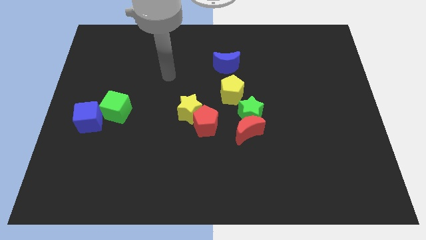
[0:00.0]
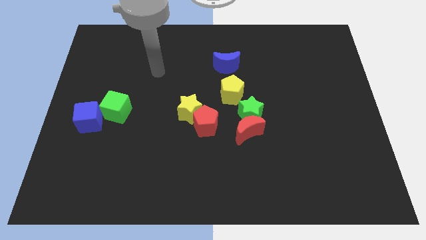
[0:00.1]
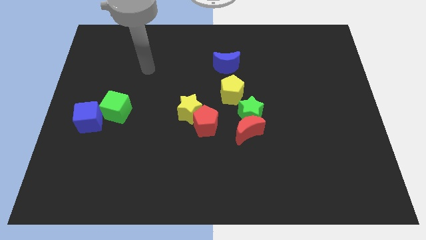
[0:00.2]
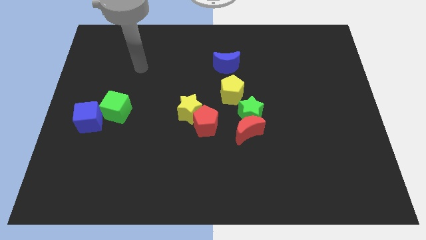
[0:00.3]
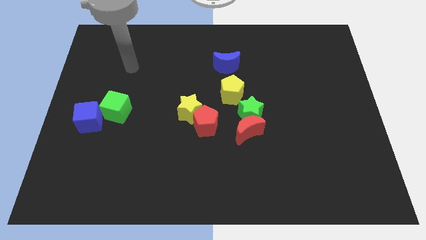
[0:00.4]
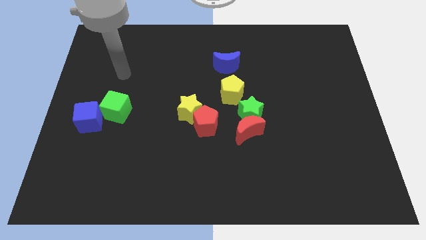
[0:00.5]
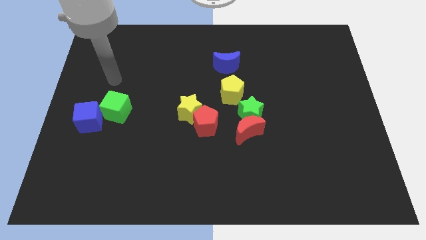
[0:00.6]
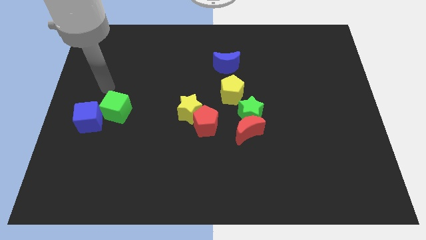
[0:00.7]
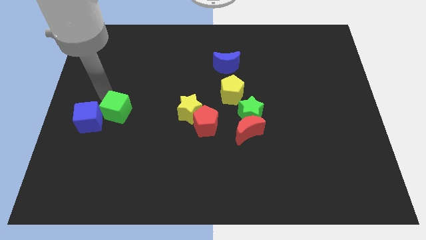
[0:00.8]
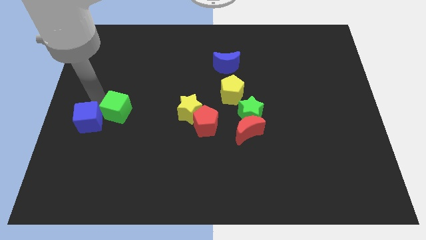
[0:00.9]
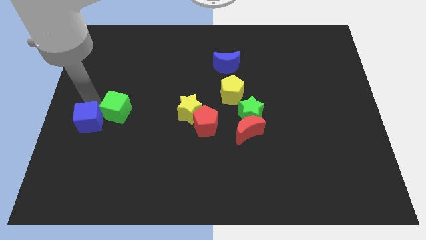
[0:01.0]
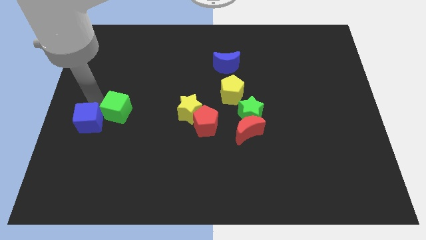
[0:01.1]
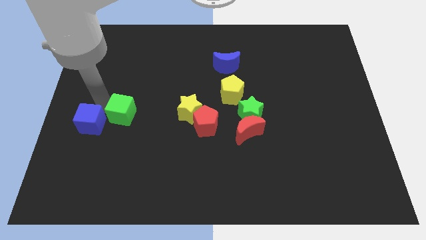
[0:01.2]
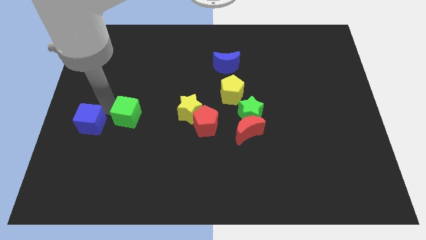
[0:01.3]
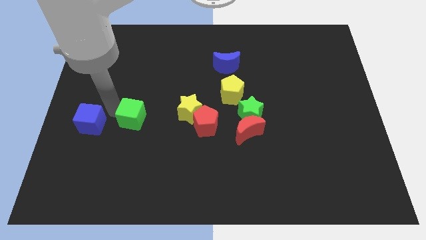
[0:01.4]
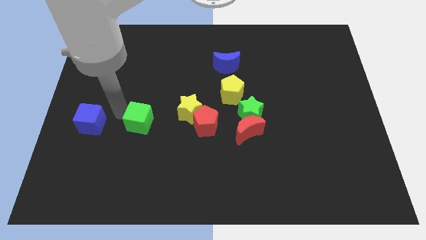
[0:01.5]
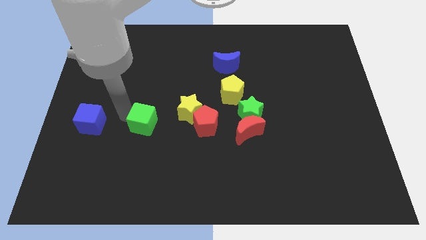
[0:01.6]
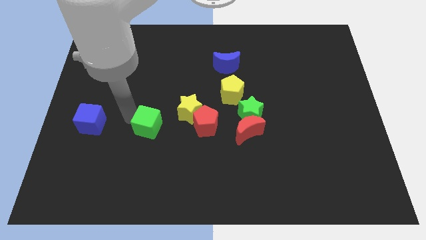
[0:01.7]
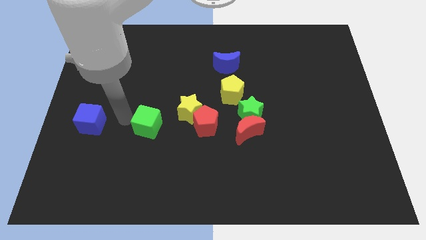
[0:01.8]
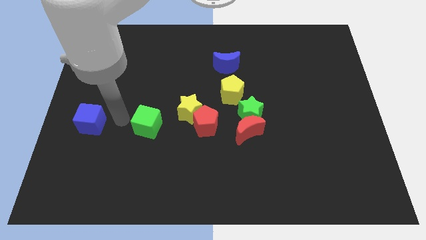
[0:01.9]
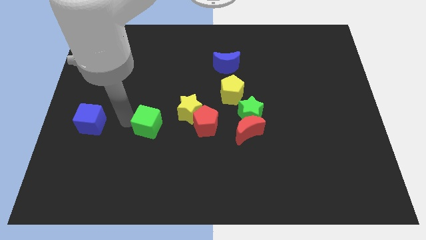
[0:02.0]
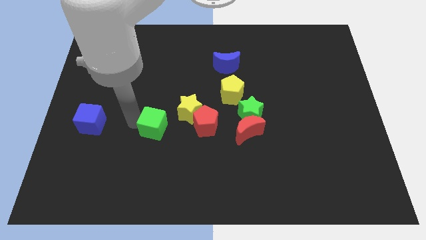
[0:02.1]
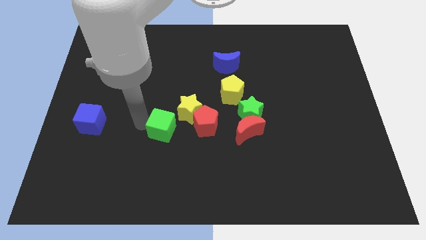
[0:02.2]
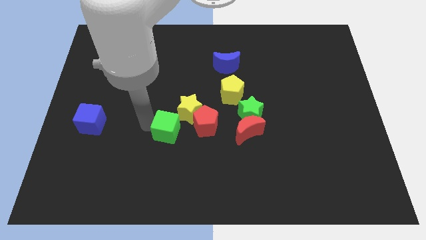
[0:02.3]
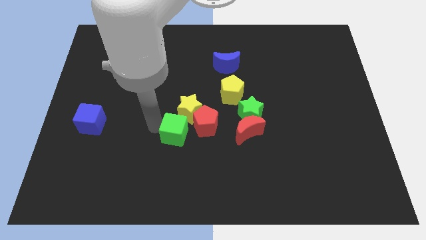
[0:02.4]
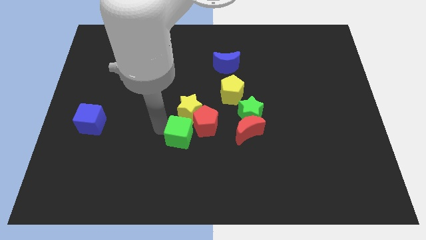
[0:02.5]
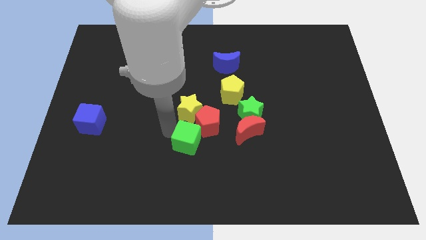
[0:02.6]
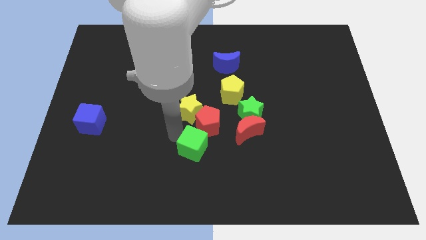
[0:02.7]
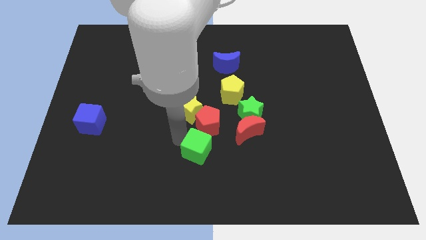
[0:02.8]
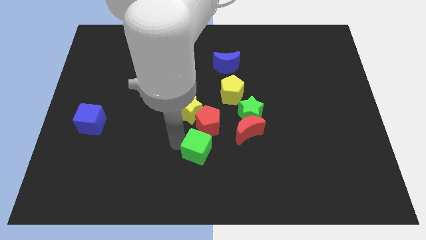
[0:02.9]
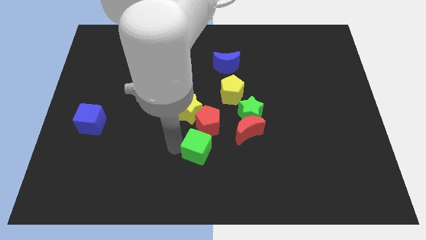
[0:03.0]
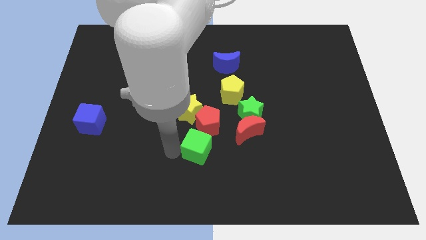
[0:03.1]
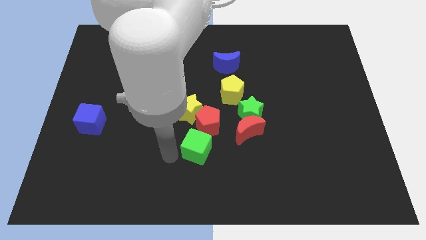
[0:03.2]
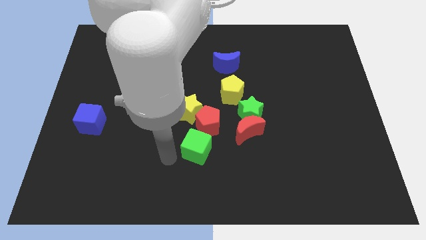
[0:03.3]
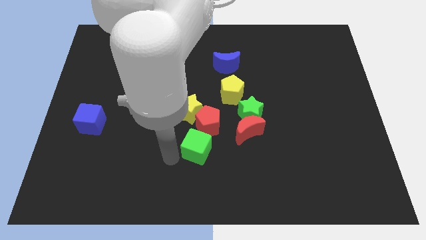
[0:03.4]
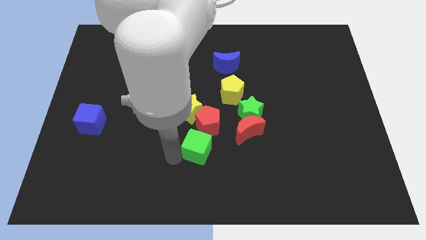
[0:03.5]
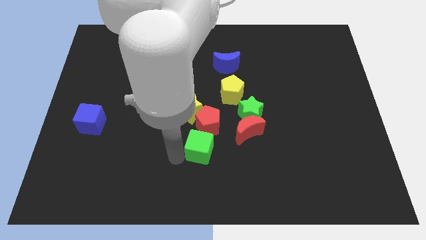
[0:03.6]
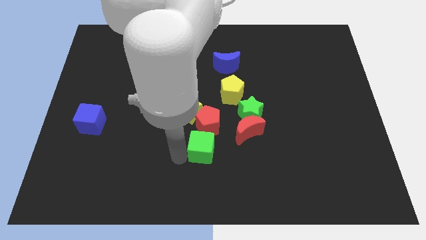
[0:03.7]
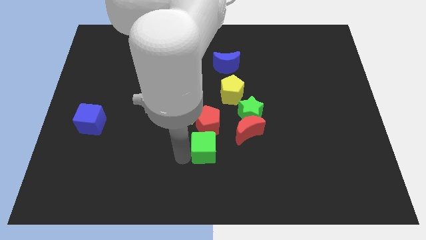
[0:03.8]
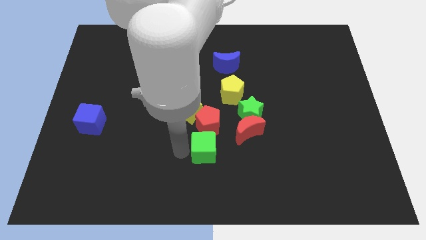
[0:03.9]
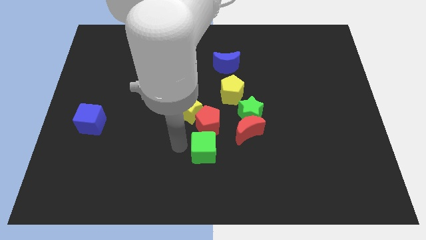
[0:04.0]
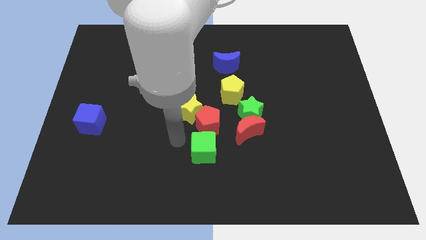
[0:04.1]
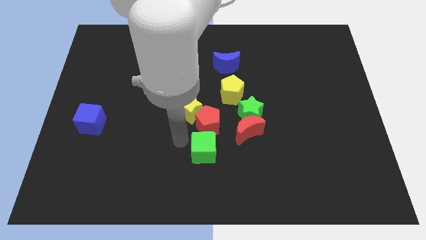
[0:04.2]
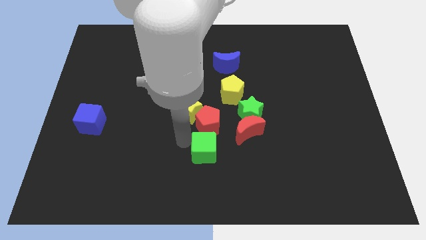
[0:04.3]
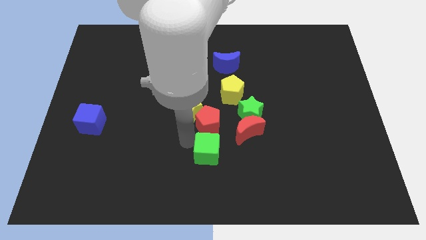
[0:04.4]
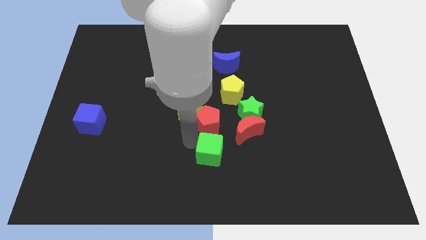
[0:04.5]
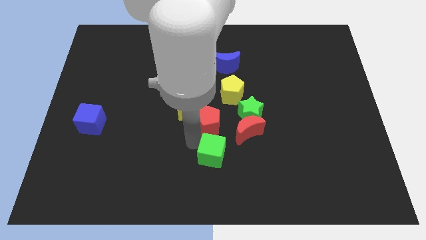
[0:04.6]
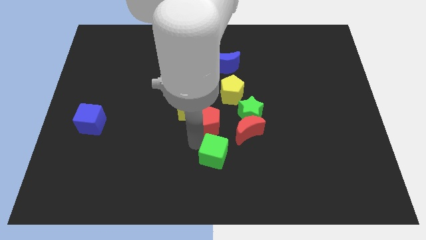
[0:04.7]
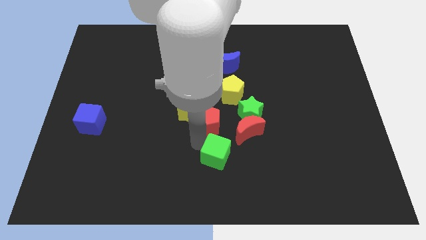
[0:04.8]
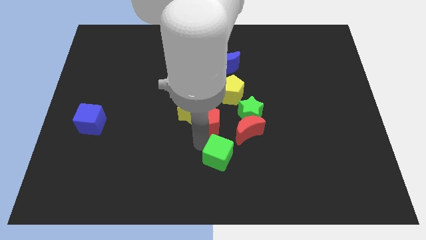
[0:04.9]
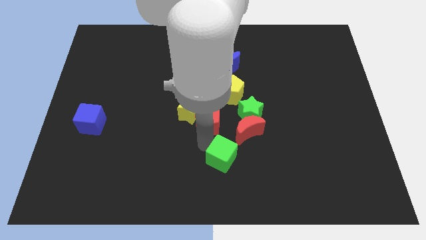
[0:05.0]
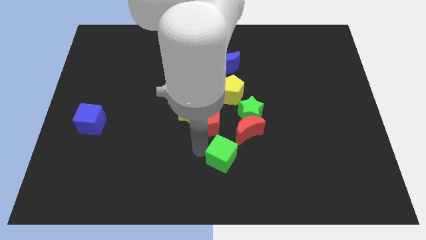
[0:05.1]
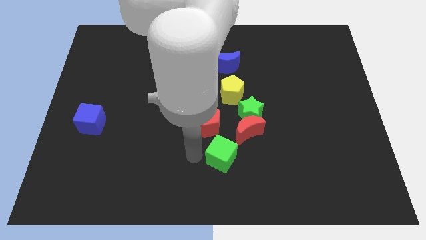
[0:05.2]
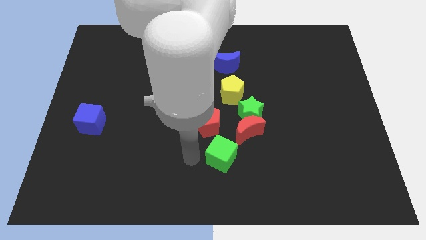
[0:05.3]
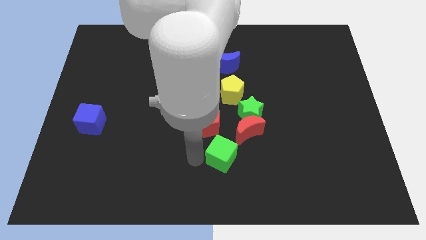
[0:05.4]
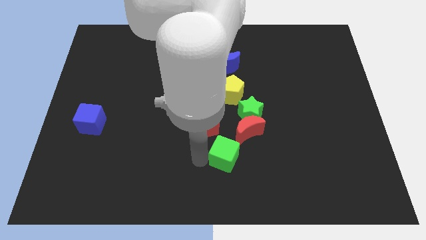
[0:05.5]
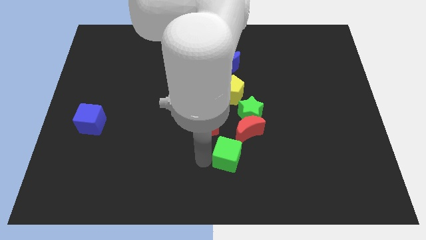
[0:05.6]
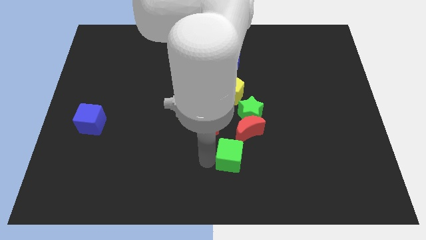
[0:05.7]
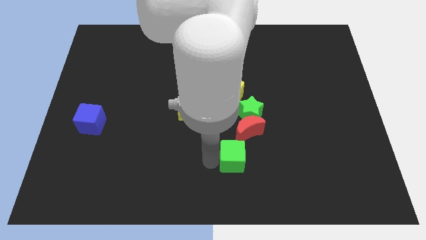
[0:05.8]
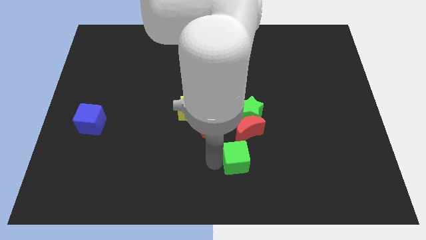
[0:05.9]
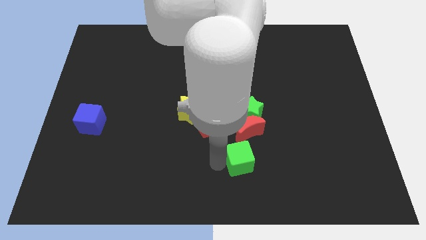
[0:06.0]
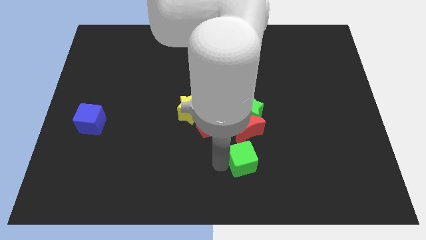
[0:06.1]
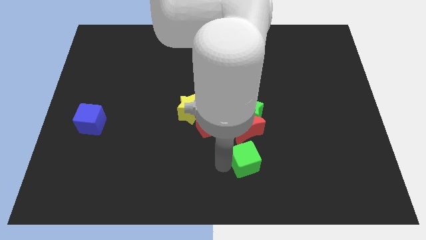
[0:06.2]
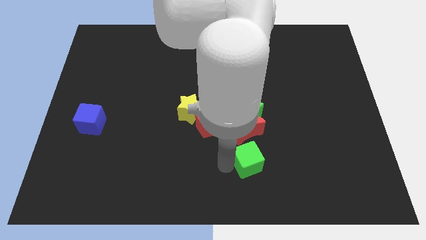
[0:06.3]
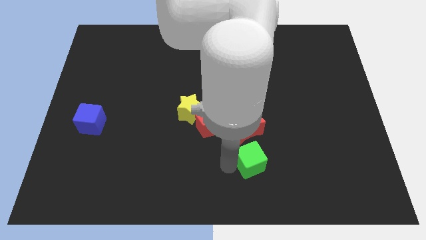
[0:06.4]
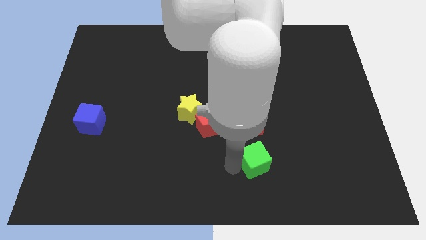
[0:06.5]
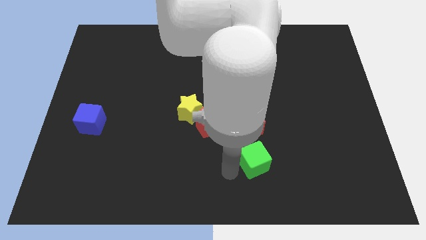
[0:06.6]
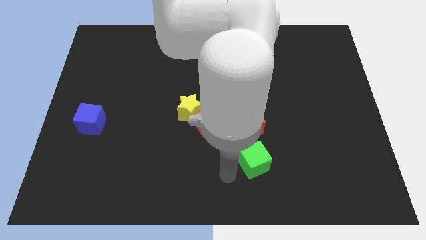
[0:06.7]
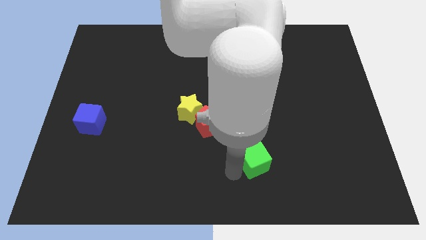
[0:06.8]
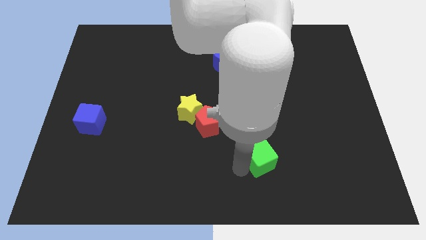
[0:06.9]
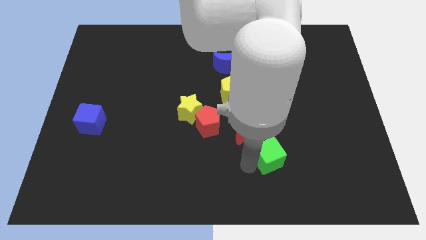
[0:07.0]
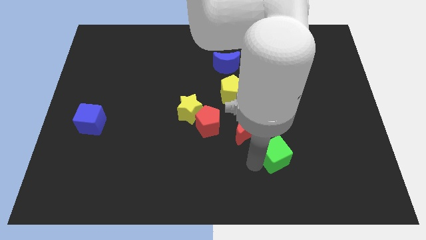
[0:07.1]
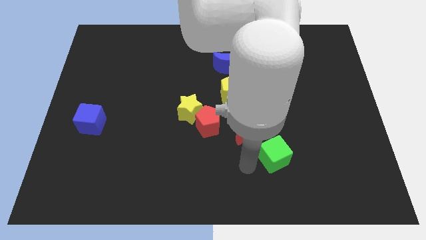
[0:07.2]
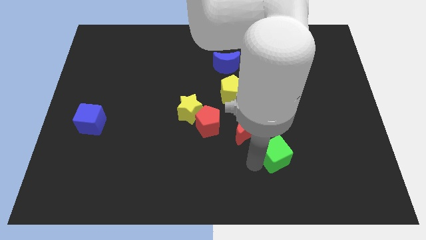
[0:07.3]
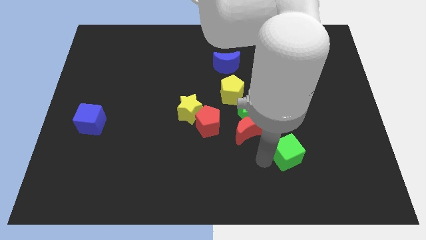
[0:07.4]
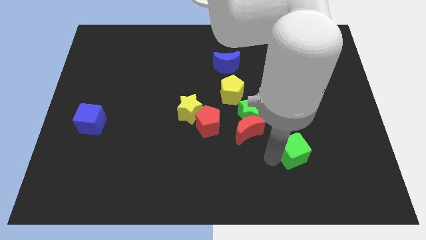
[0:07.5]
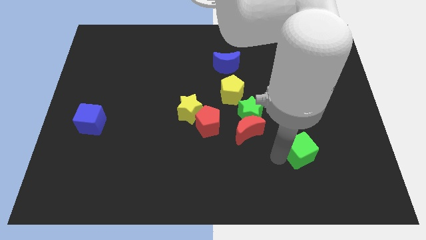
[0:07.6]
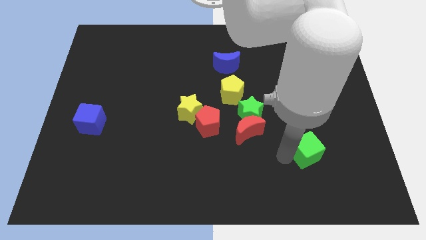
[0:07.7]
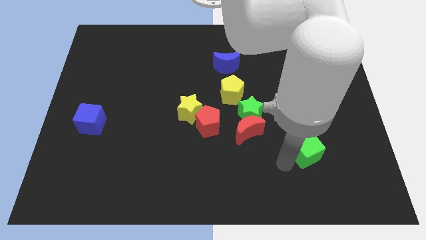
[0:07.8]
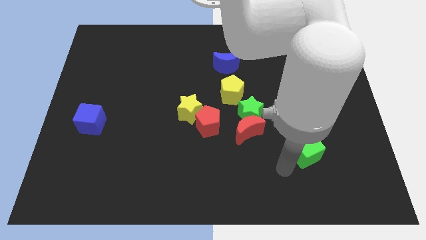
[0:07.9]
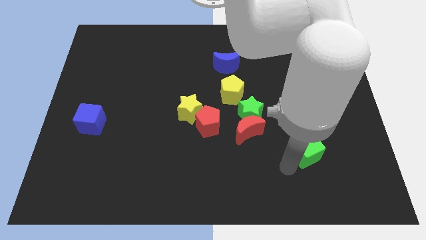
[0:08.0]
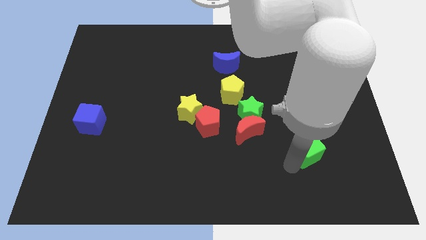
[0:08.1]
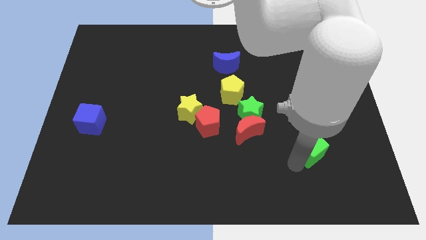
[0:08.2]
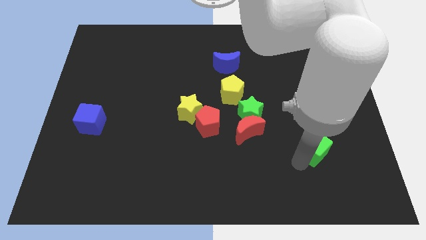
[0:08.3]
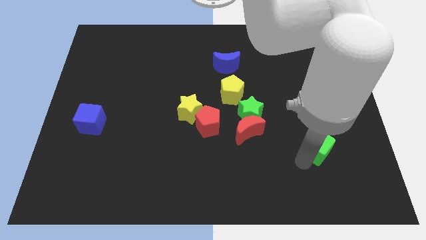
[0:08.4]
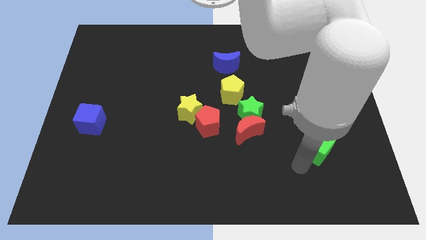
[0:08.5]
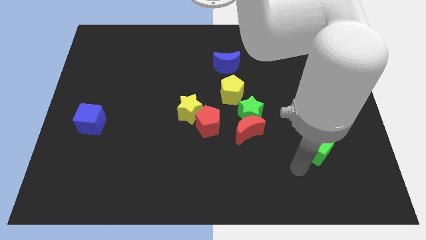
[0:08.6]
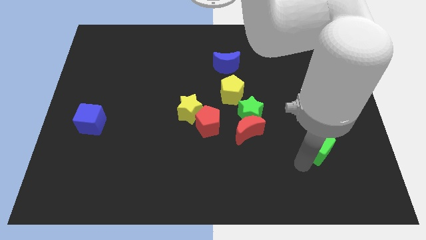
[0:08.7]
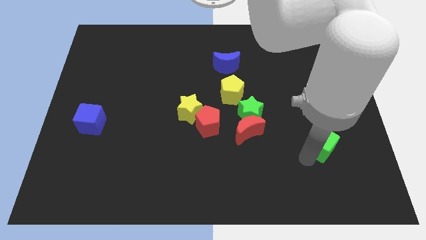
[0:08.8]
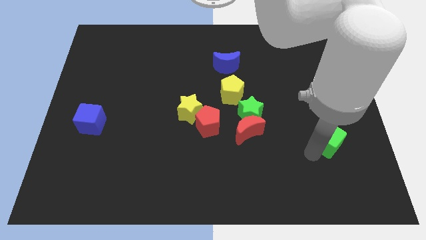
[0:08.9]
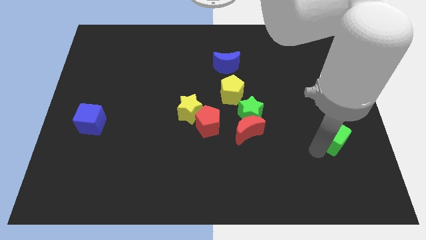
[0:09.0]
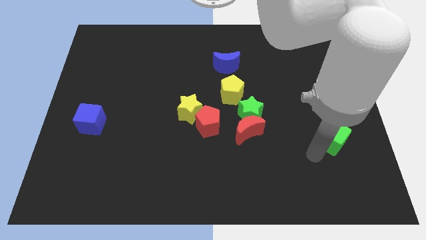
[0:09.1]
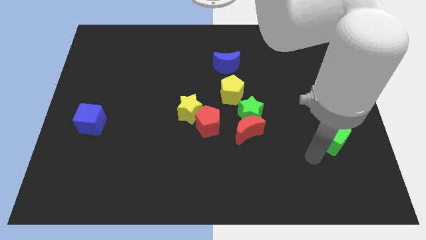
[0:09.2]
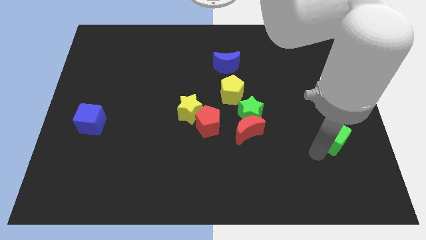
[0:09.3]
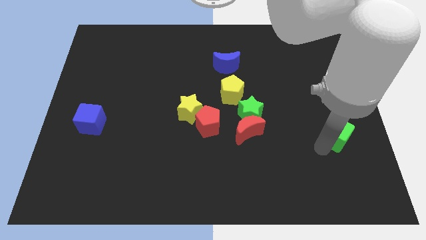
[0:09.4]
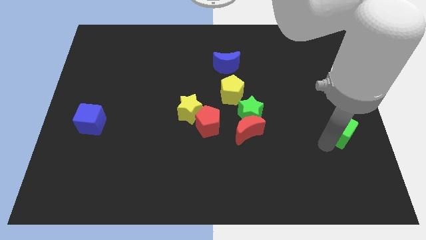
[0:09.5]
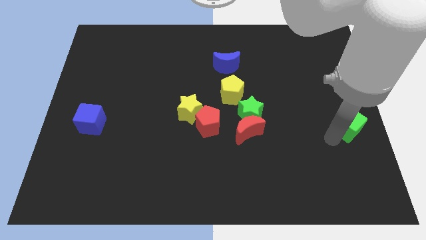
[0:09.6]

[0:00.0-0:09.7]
move the green cube to the center right
